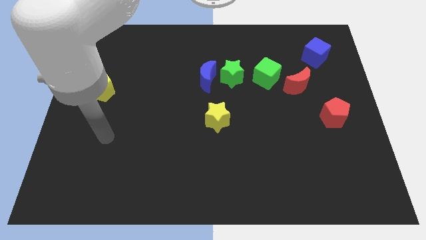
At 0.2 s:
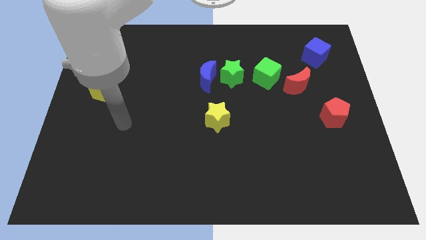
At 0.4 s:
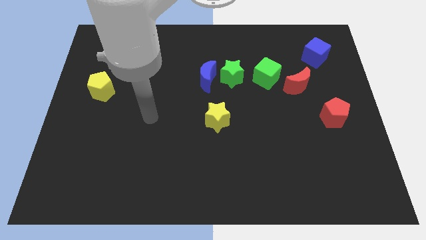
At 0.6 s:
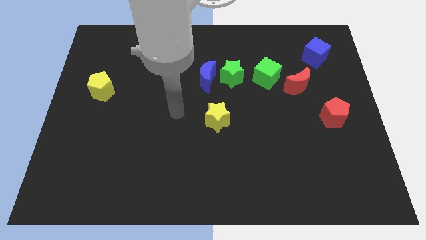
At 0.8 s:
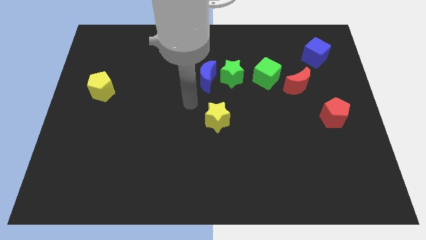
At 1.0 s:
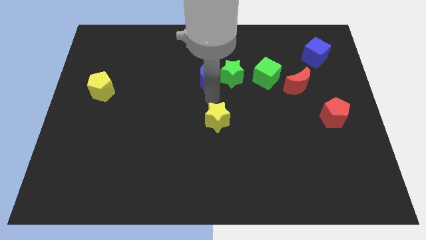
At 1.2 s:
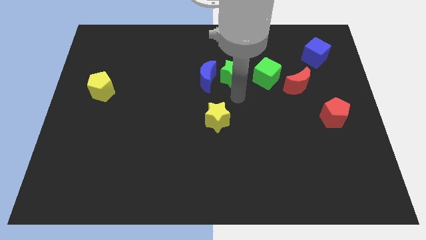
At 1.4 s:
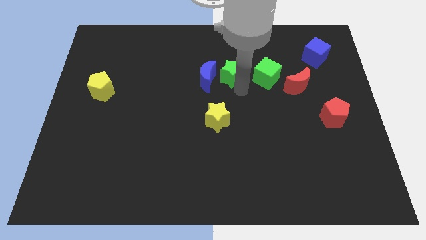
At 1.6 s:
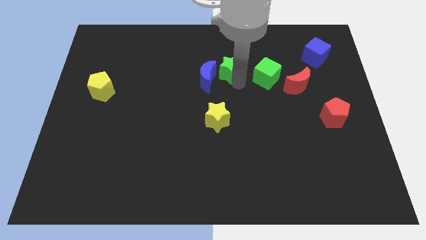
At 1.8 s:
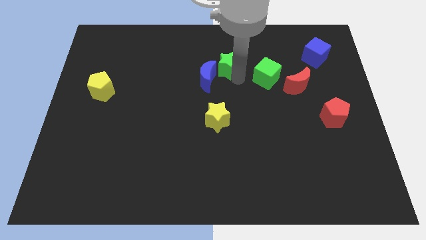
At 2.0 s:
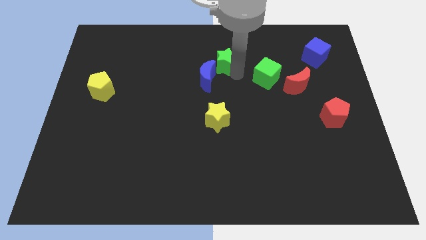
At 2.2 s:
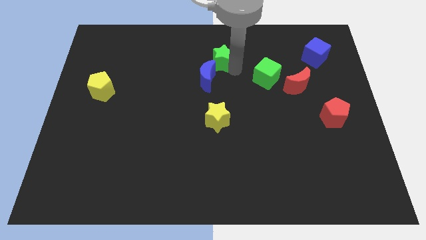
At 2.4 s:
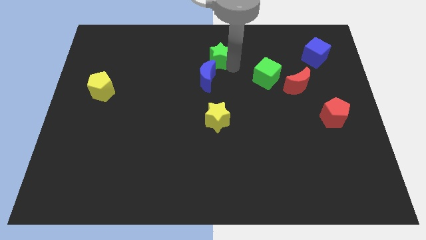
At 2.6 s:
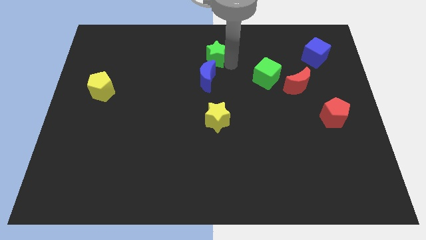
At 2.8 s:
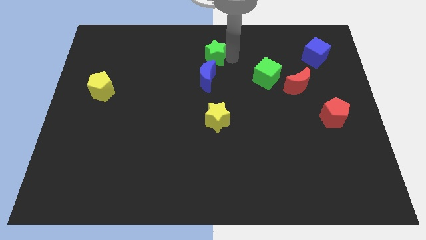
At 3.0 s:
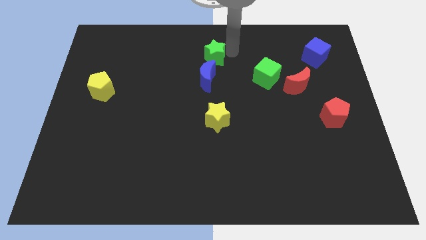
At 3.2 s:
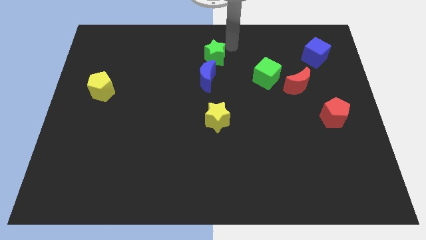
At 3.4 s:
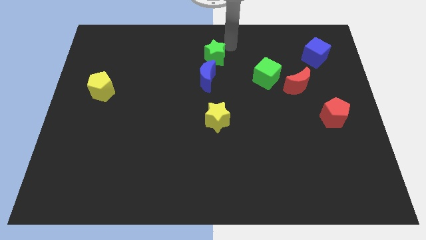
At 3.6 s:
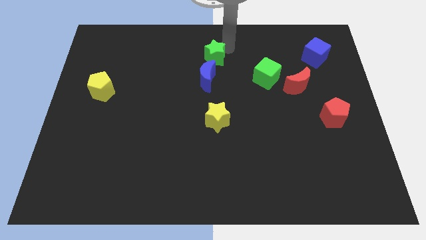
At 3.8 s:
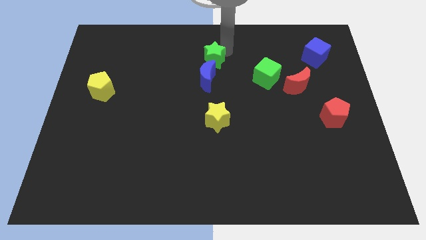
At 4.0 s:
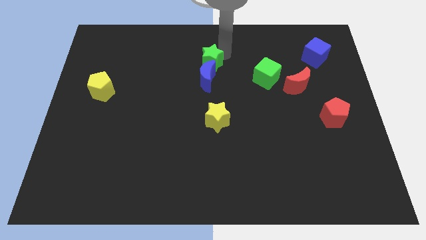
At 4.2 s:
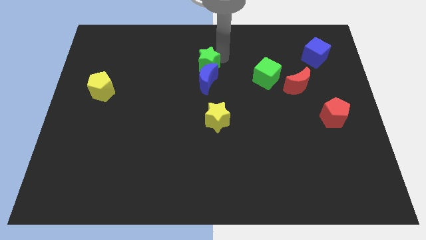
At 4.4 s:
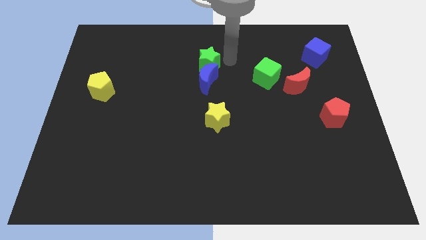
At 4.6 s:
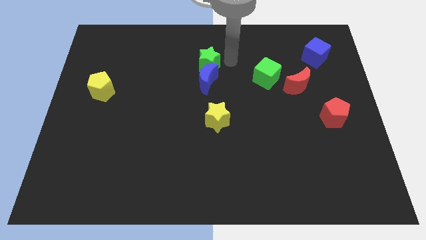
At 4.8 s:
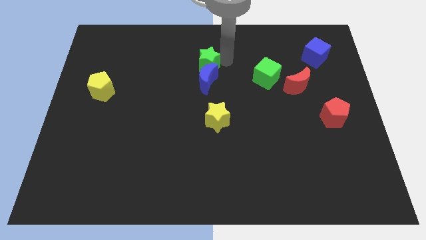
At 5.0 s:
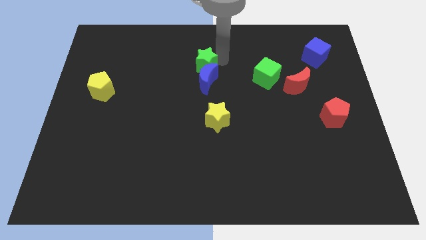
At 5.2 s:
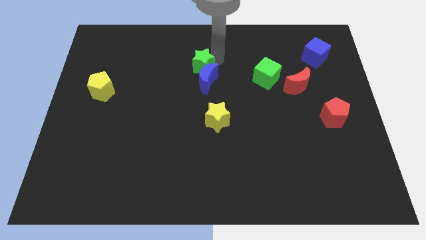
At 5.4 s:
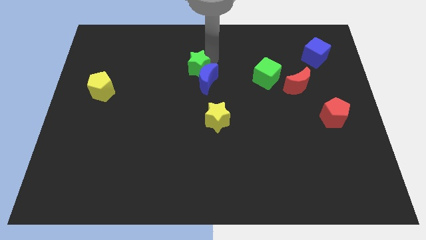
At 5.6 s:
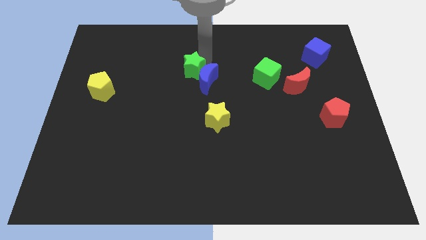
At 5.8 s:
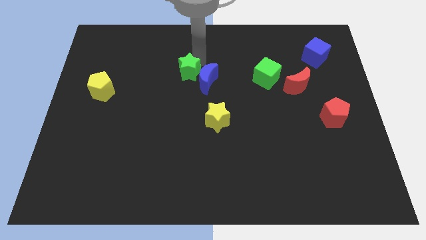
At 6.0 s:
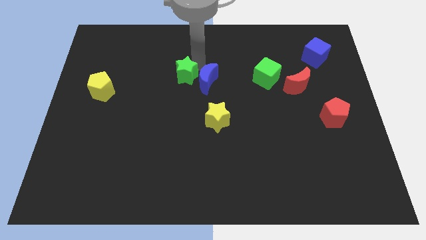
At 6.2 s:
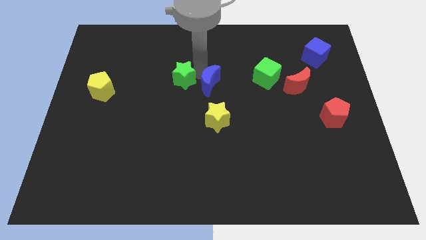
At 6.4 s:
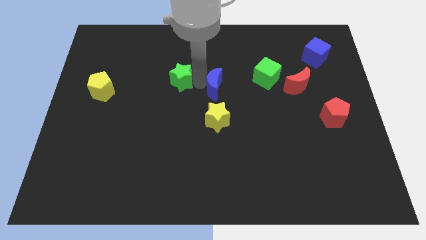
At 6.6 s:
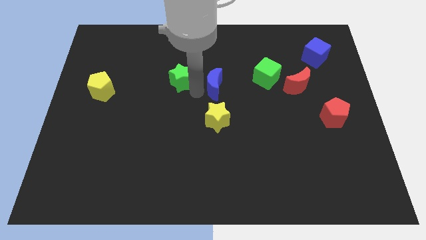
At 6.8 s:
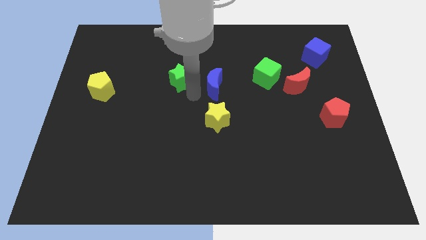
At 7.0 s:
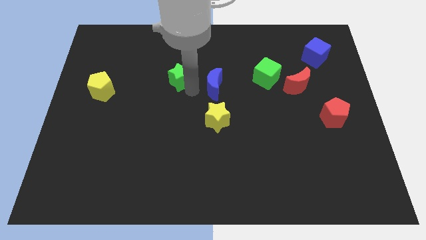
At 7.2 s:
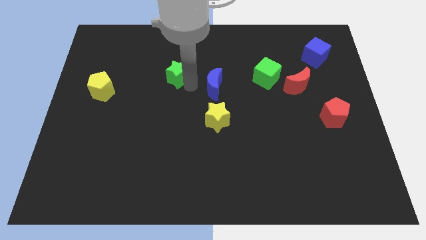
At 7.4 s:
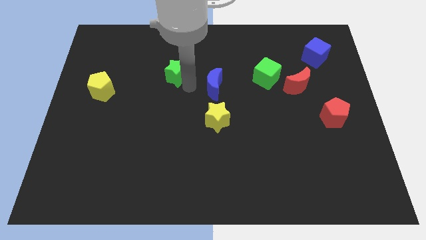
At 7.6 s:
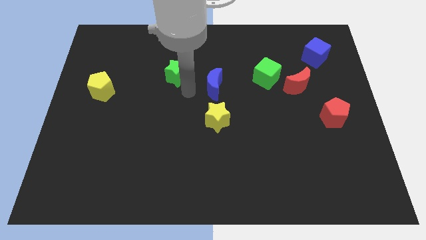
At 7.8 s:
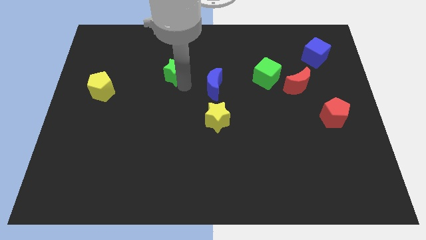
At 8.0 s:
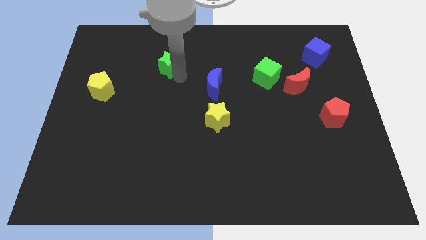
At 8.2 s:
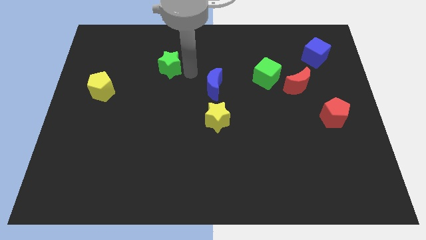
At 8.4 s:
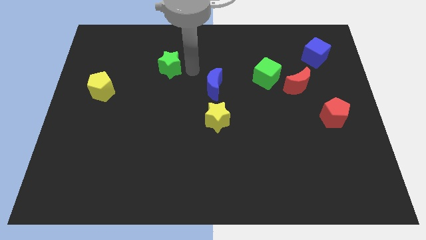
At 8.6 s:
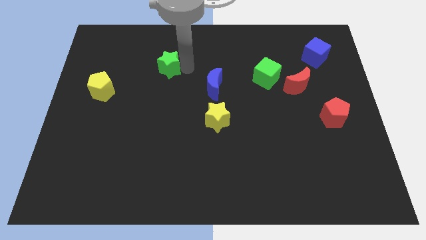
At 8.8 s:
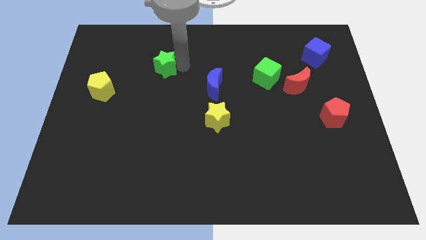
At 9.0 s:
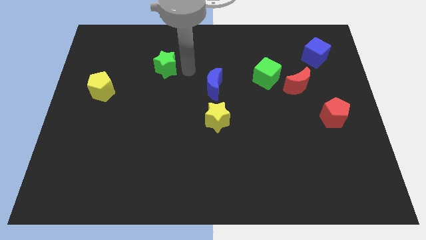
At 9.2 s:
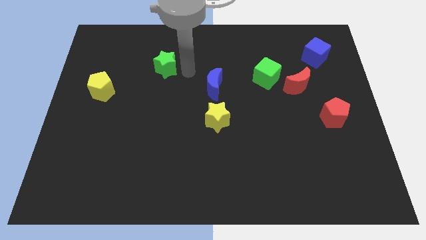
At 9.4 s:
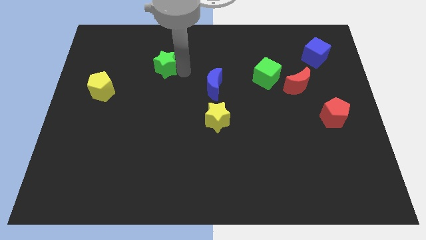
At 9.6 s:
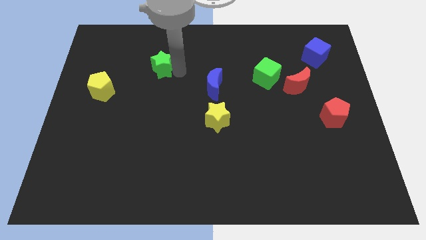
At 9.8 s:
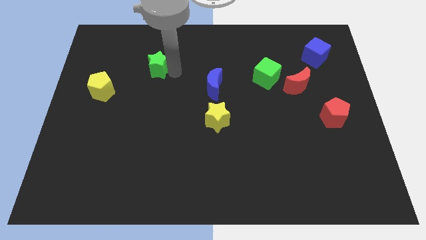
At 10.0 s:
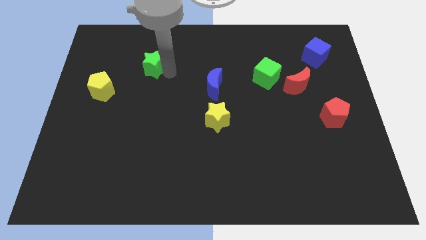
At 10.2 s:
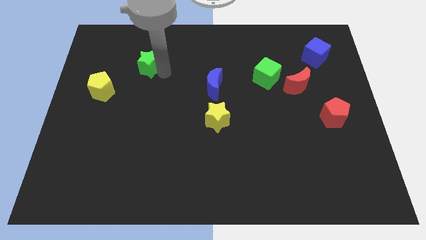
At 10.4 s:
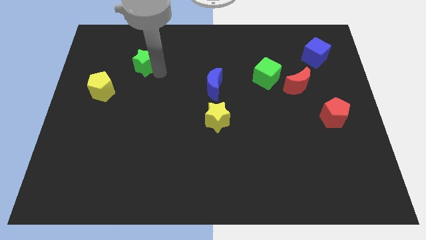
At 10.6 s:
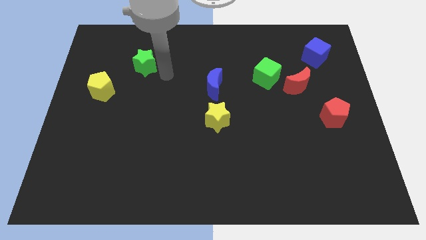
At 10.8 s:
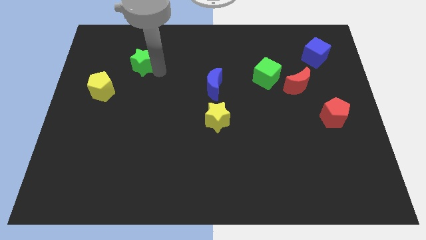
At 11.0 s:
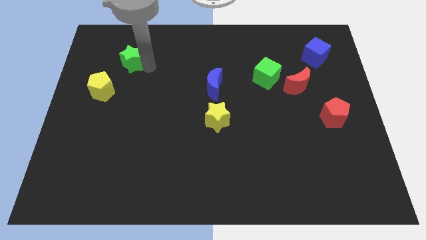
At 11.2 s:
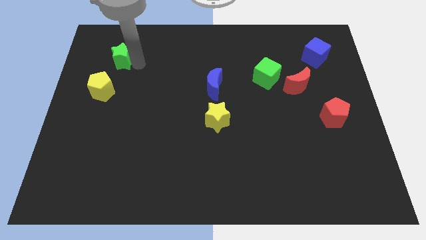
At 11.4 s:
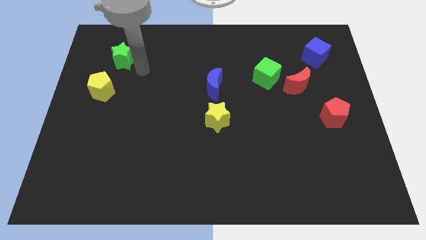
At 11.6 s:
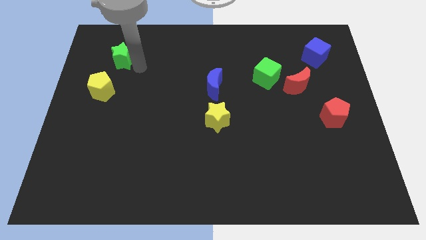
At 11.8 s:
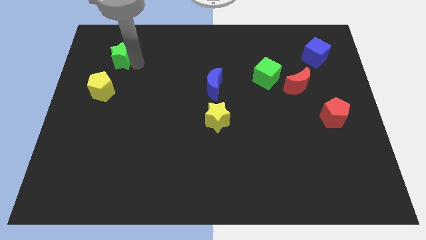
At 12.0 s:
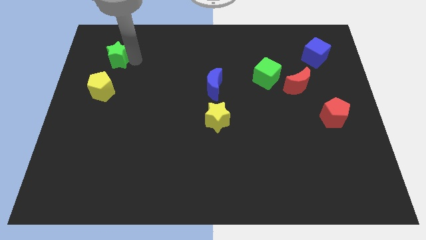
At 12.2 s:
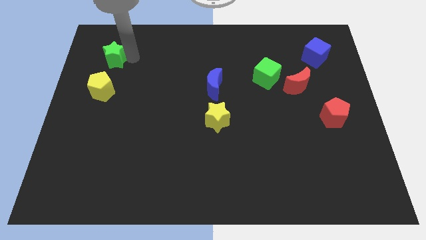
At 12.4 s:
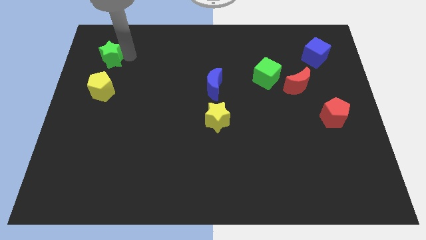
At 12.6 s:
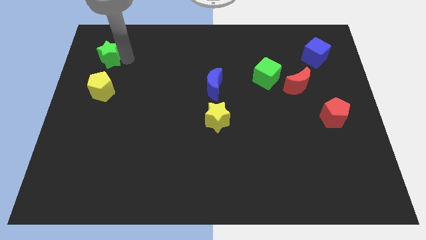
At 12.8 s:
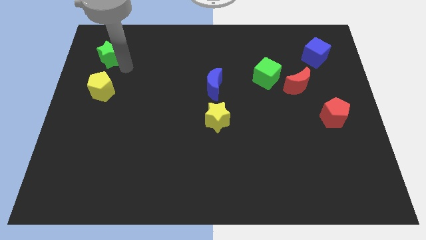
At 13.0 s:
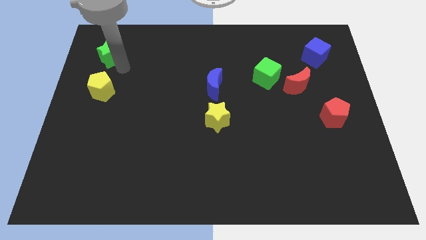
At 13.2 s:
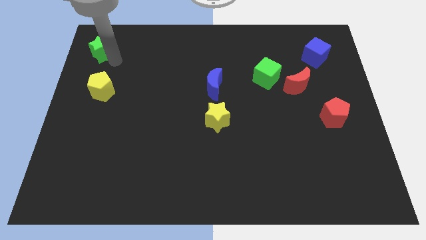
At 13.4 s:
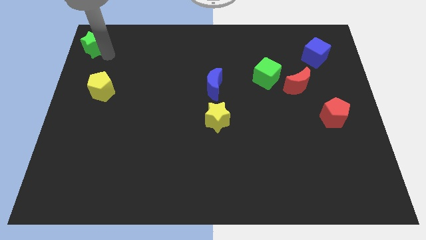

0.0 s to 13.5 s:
put the green star to the top left of the board
